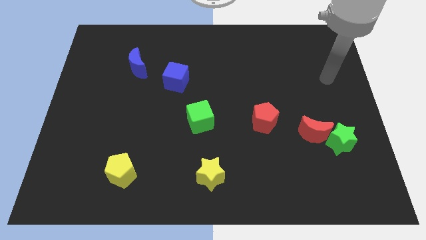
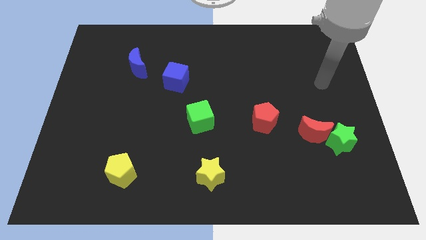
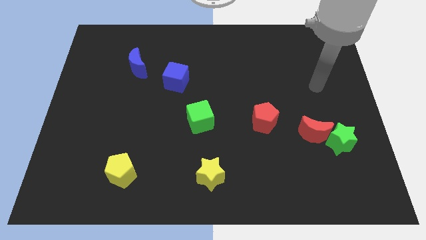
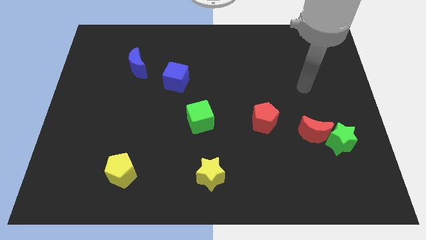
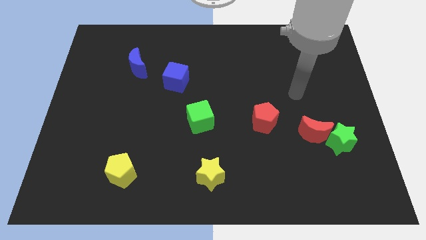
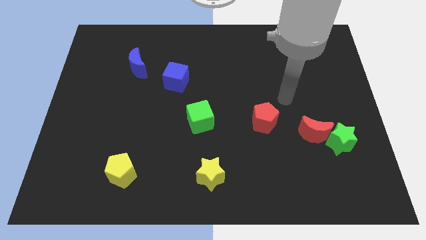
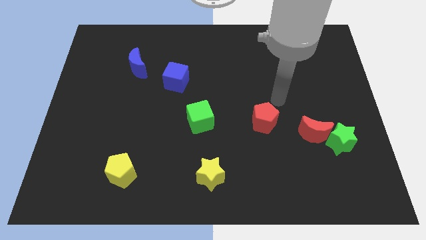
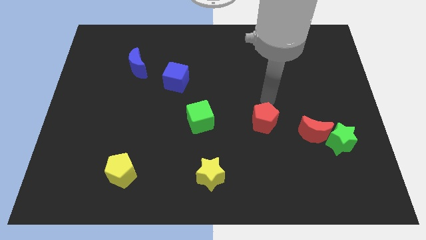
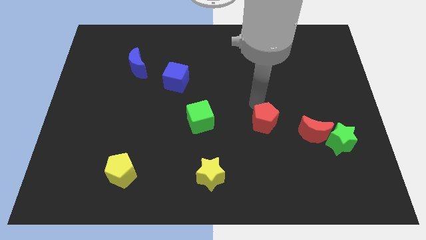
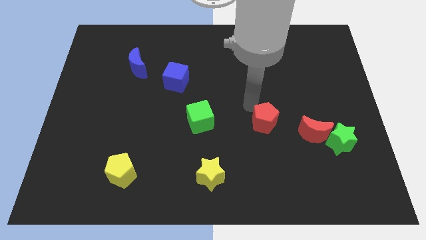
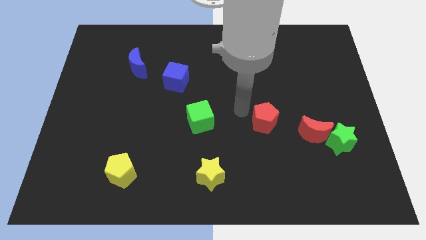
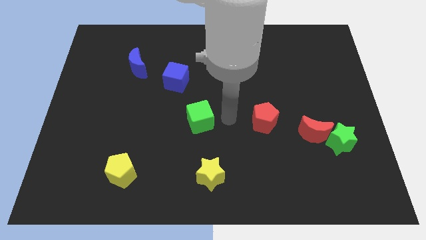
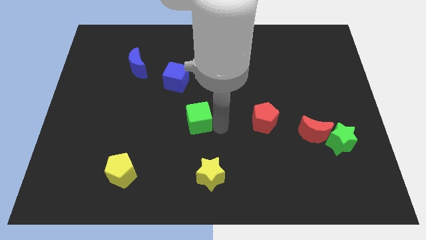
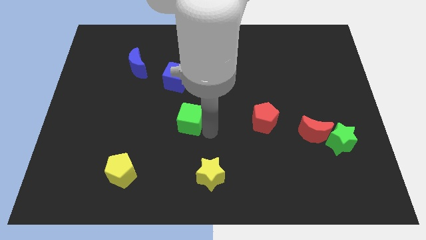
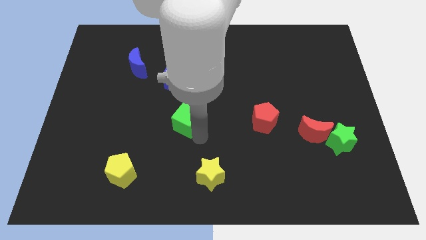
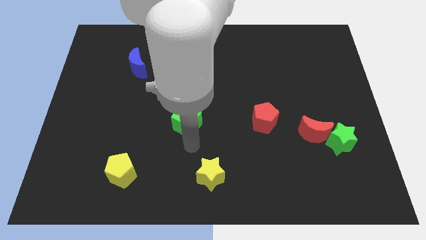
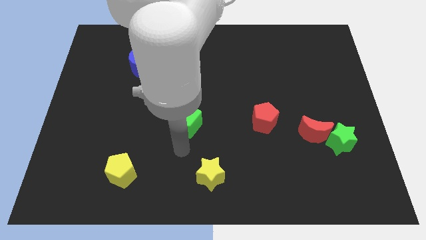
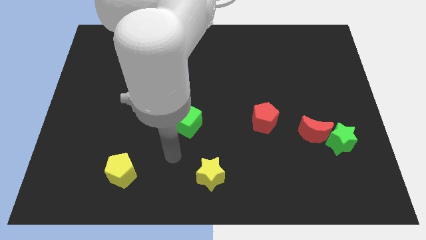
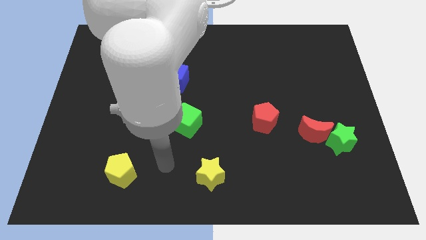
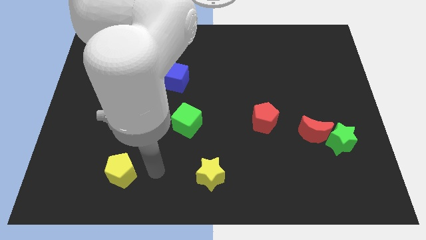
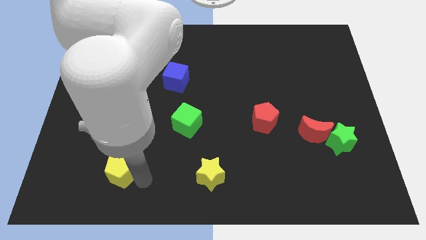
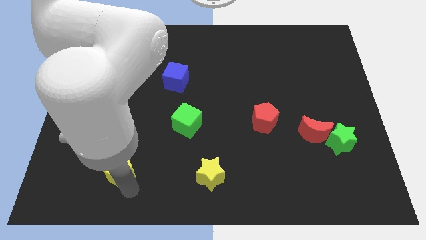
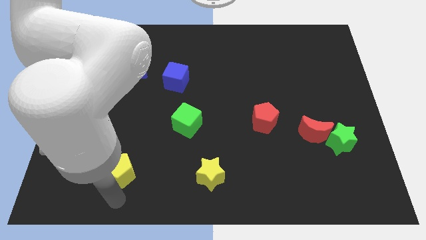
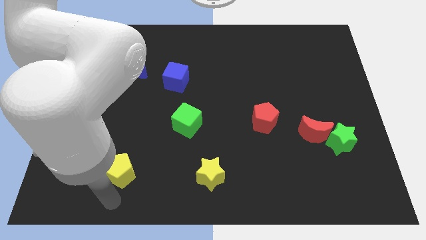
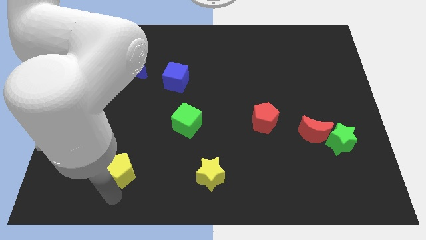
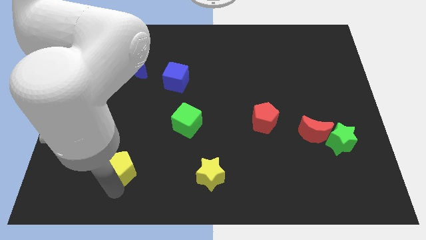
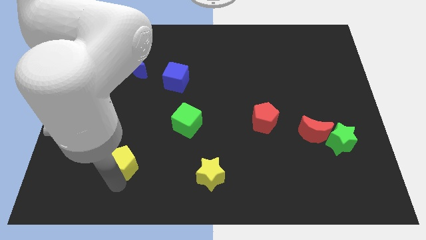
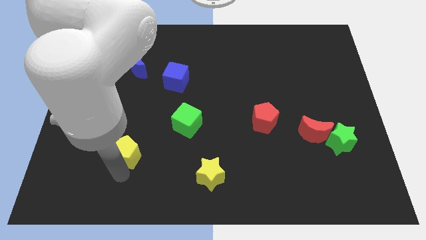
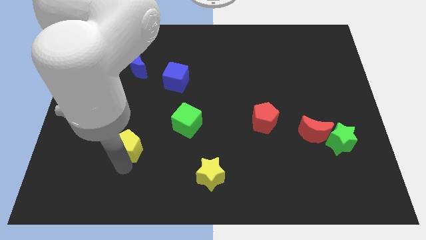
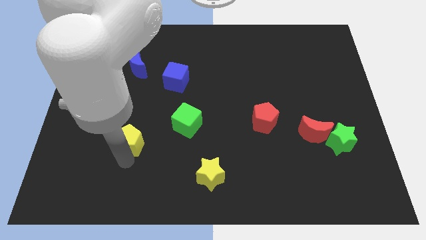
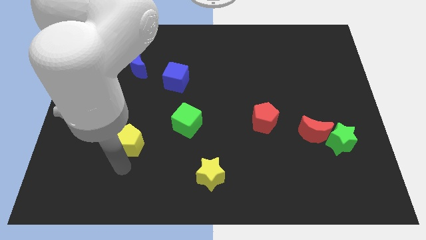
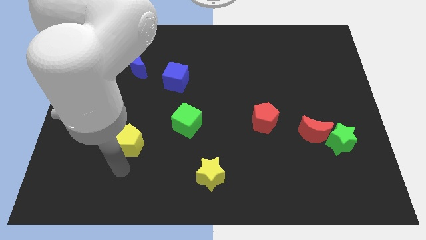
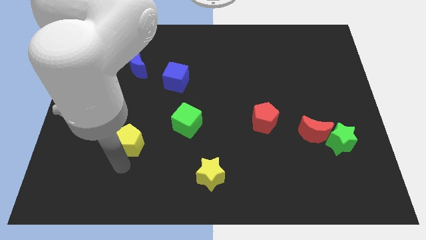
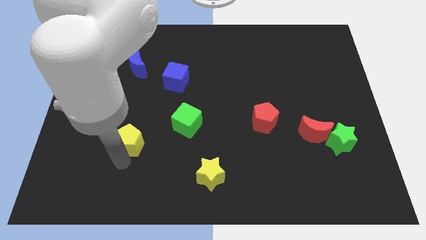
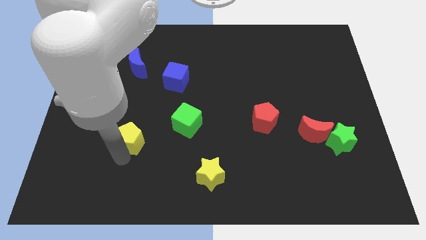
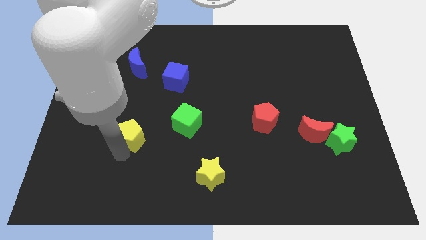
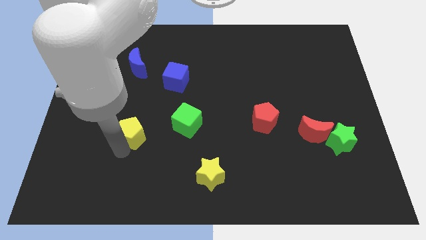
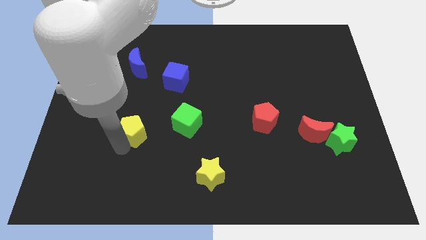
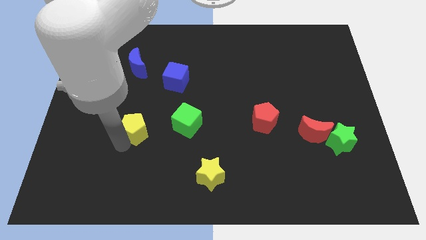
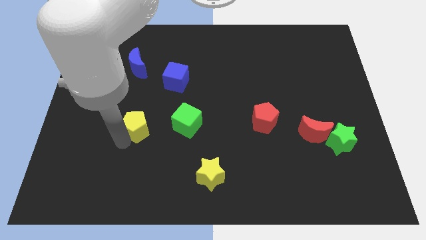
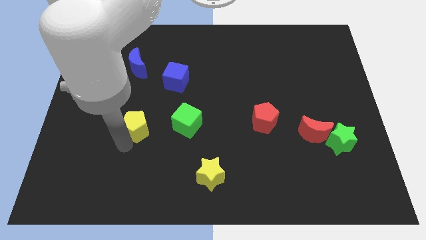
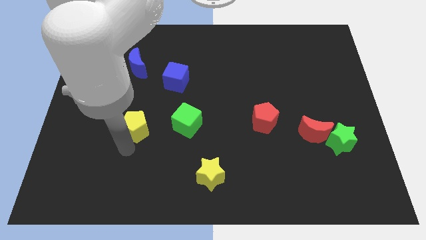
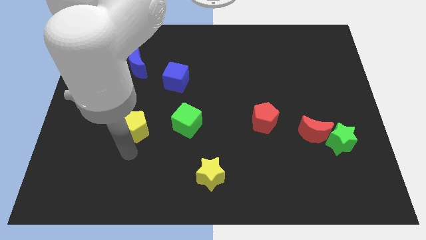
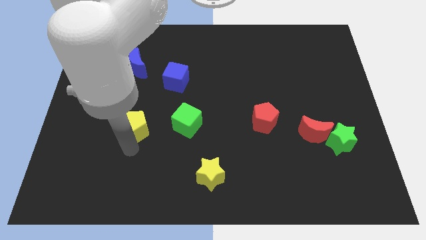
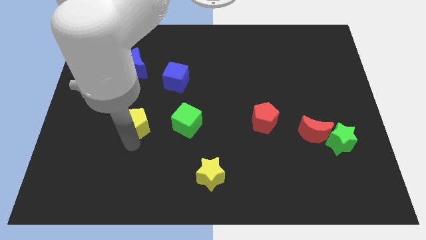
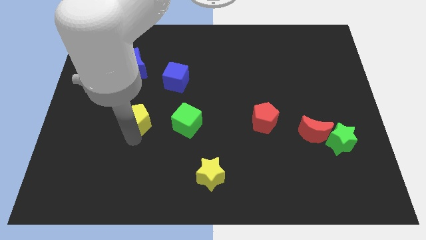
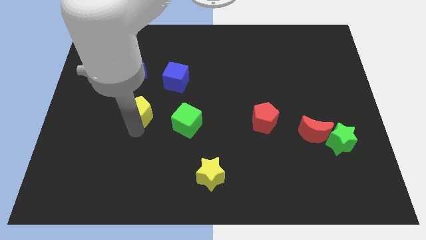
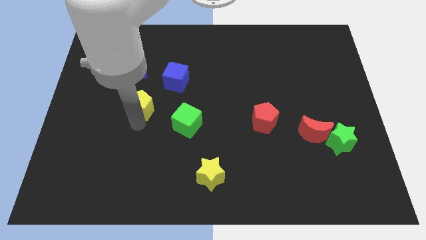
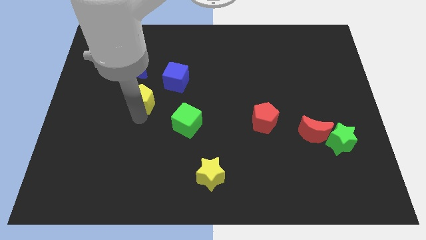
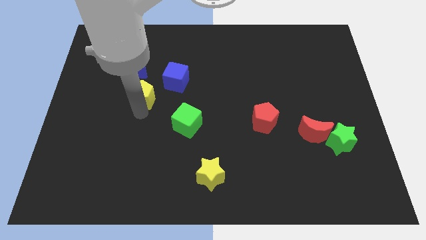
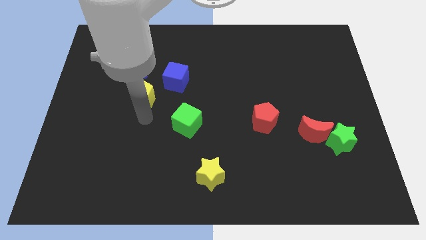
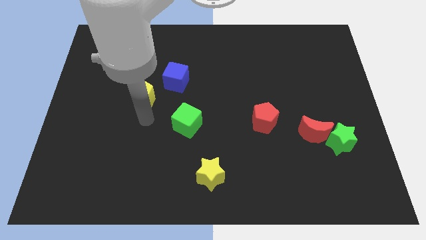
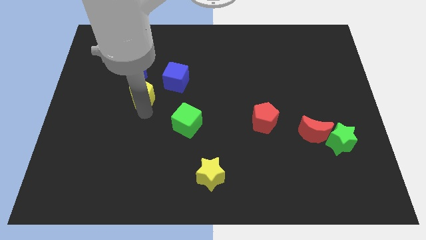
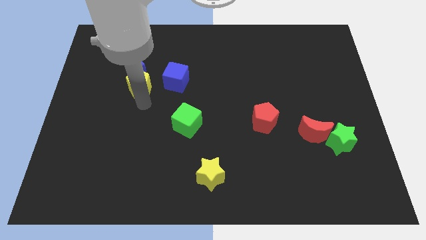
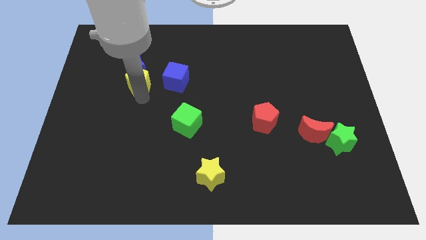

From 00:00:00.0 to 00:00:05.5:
push the yellow pentagon to the blue moon

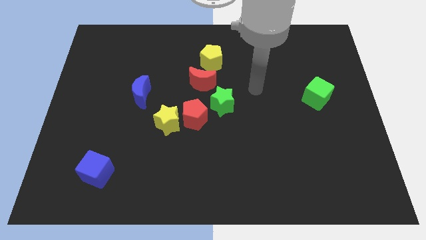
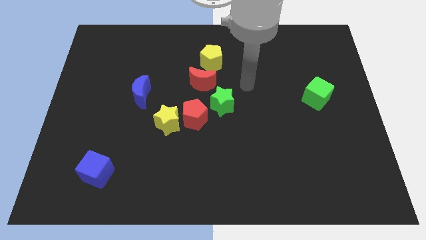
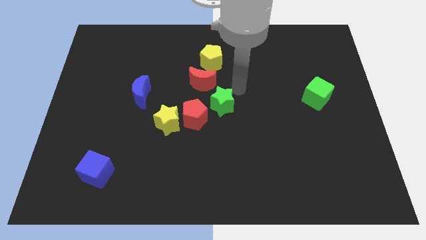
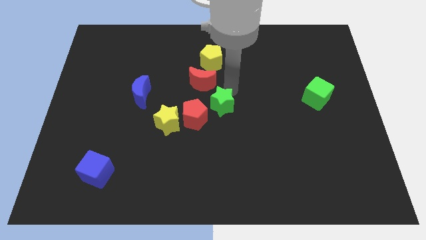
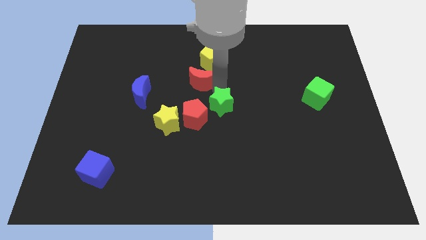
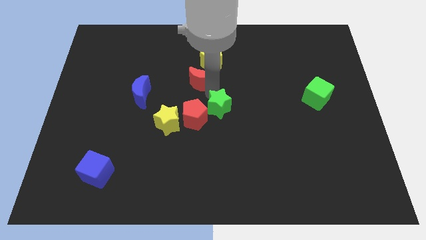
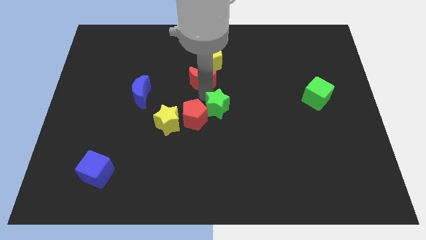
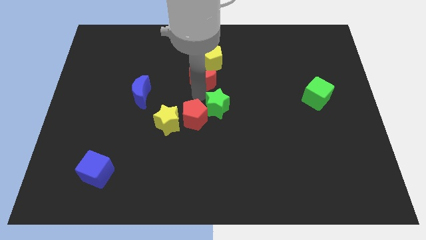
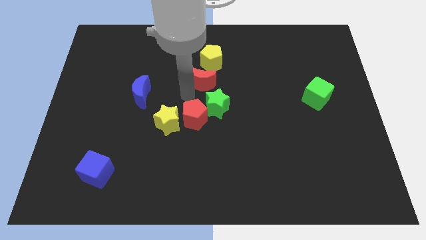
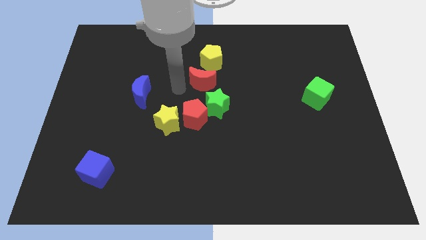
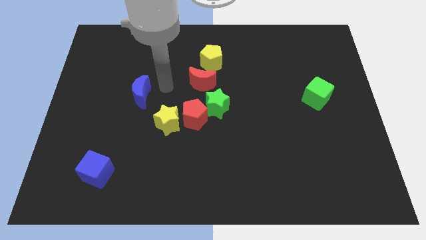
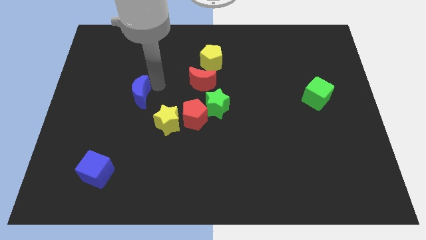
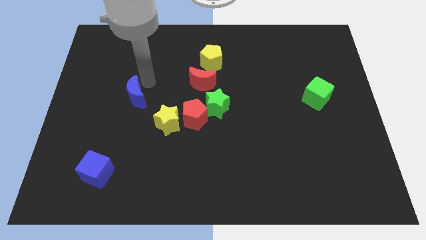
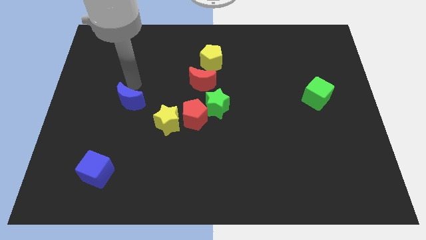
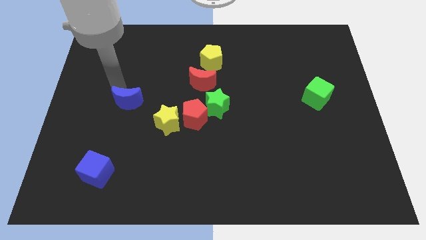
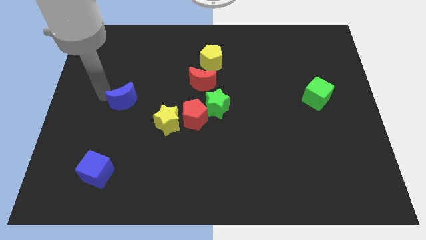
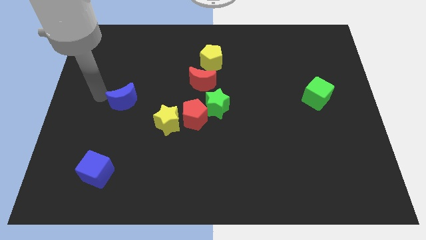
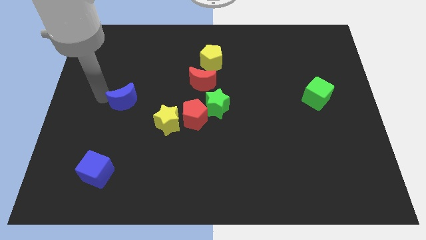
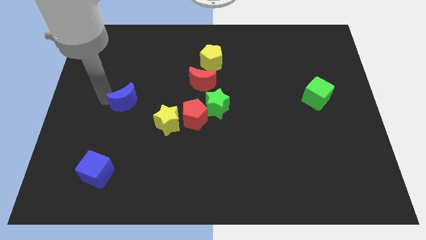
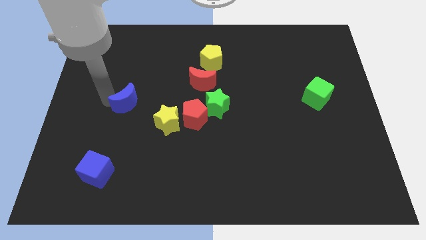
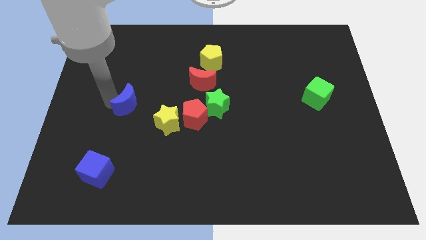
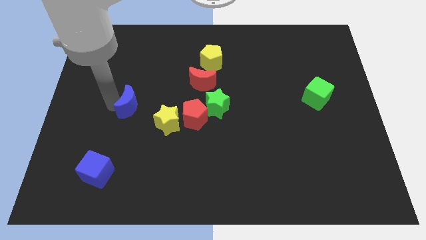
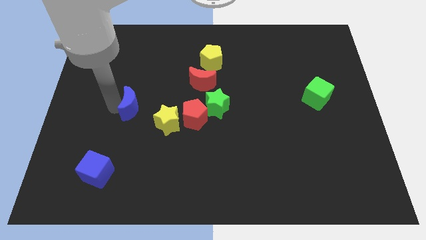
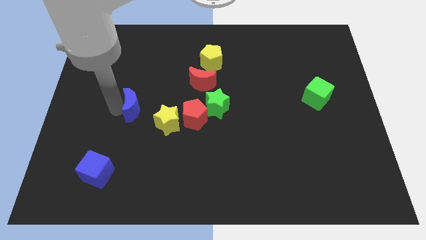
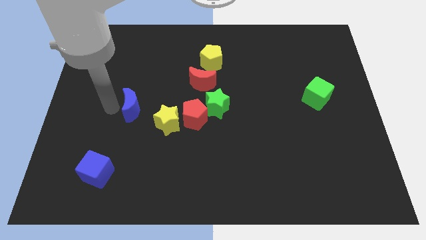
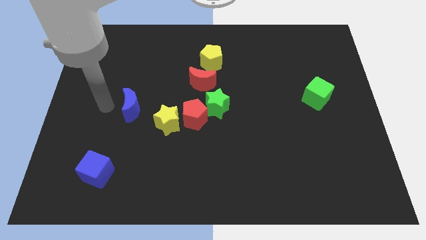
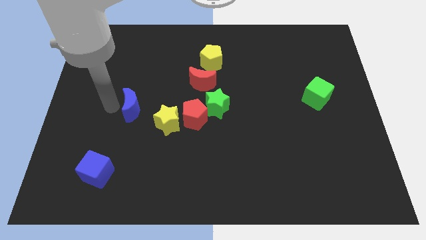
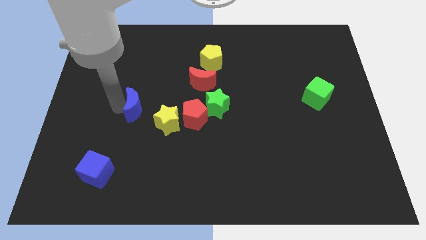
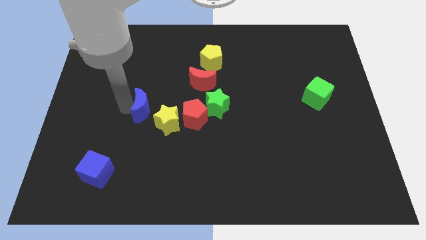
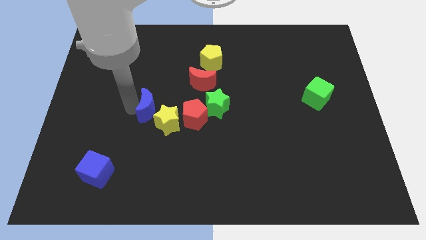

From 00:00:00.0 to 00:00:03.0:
push the blue moon towards the yellow star
